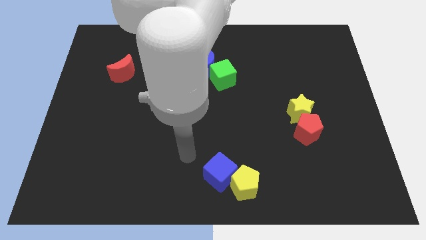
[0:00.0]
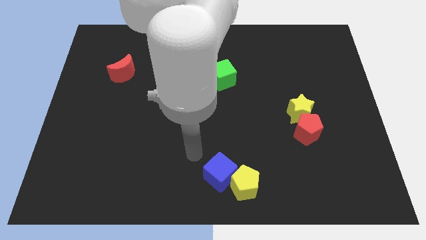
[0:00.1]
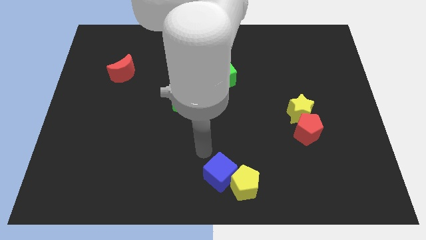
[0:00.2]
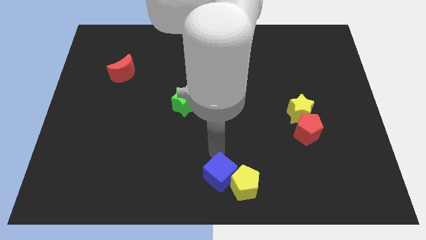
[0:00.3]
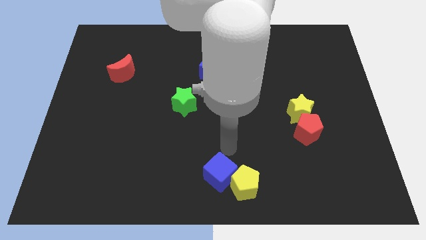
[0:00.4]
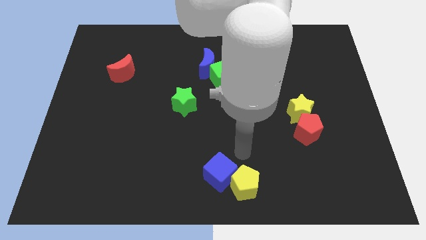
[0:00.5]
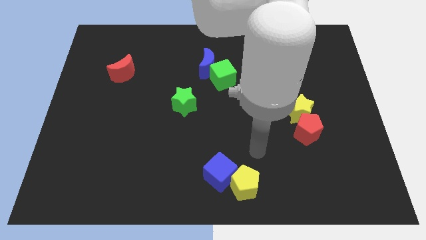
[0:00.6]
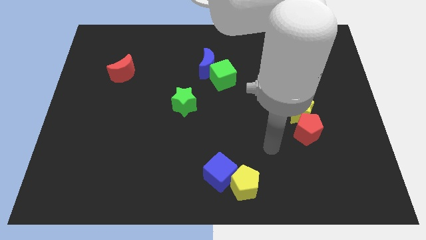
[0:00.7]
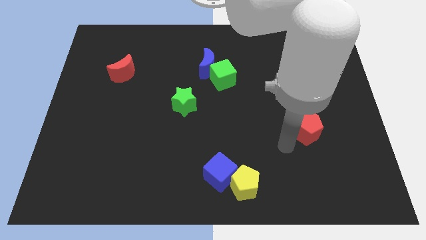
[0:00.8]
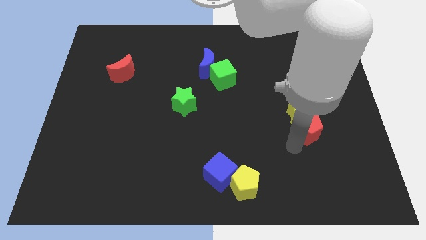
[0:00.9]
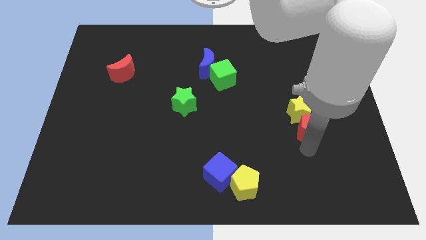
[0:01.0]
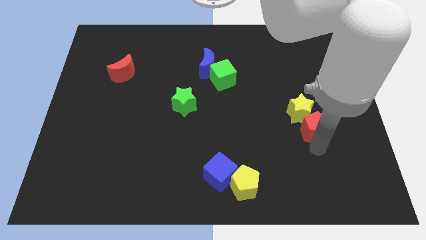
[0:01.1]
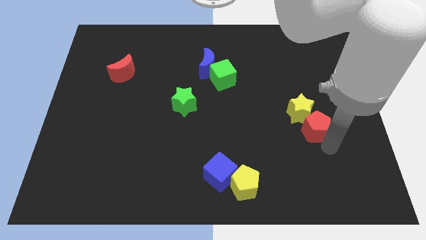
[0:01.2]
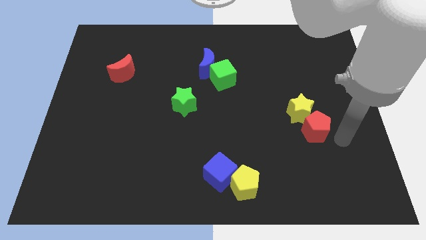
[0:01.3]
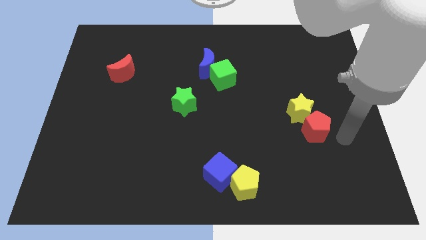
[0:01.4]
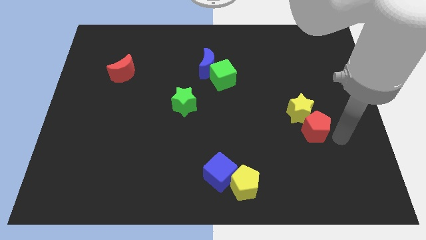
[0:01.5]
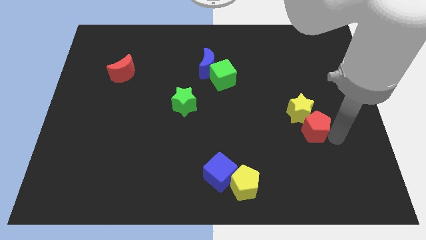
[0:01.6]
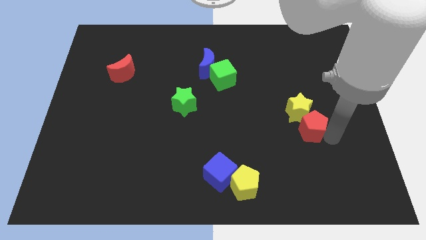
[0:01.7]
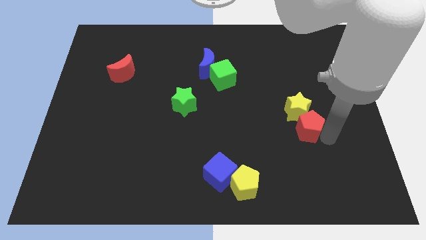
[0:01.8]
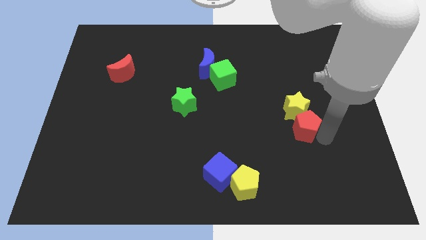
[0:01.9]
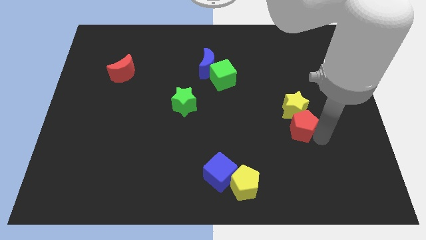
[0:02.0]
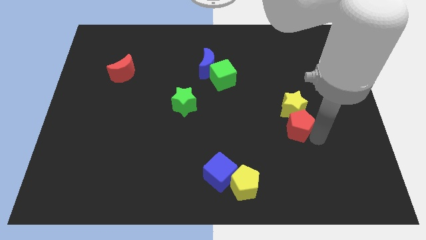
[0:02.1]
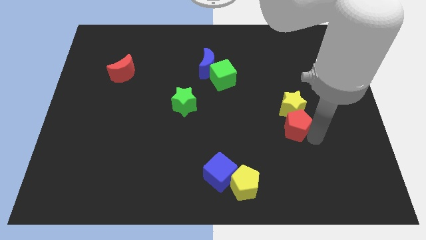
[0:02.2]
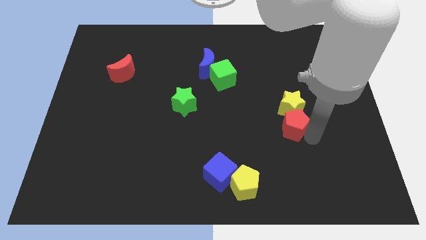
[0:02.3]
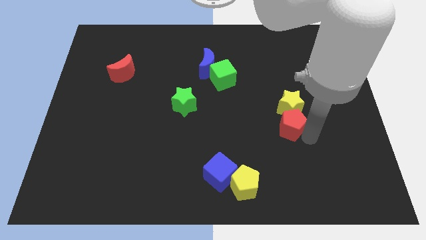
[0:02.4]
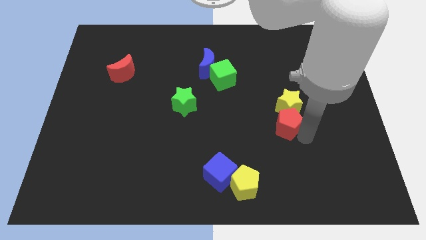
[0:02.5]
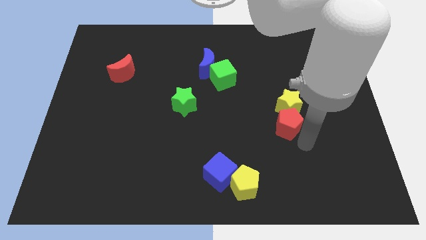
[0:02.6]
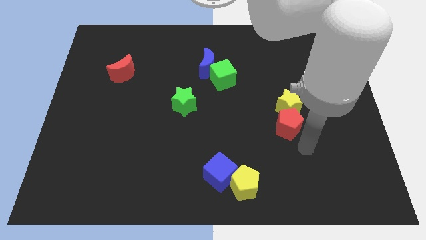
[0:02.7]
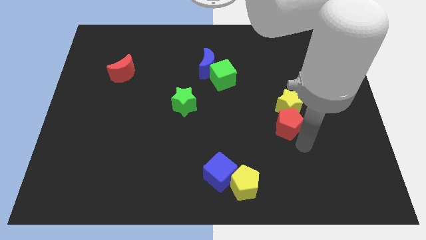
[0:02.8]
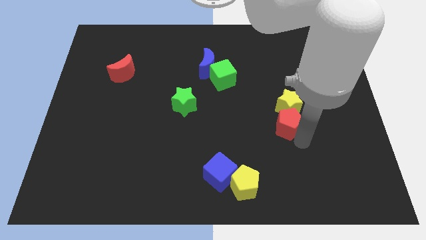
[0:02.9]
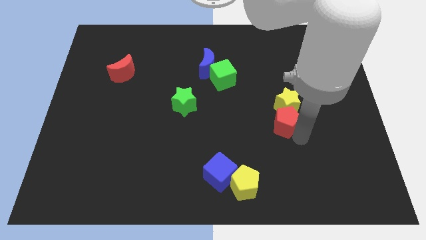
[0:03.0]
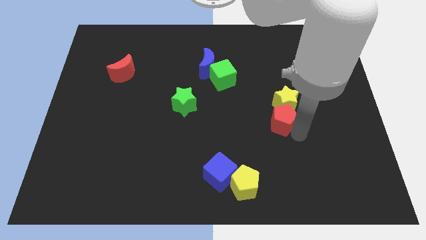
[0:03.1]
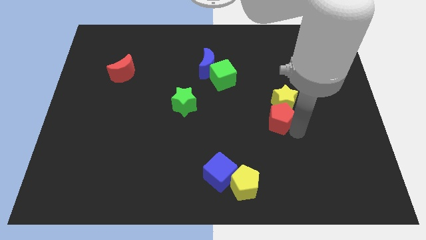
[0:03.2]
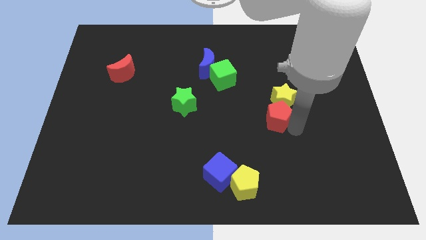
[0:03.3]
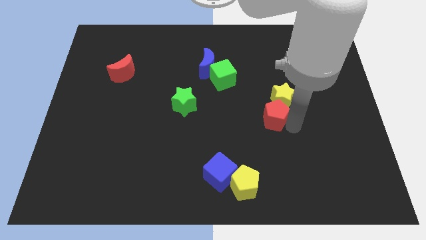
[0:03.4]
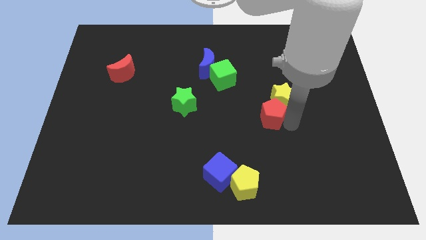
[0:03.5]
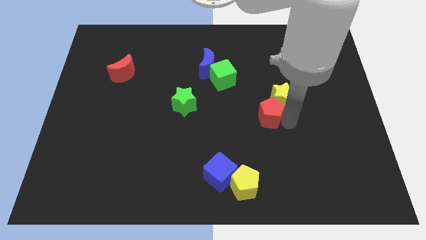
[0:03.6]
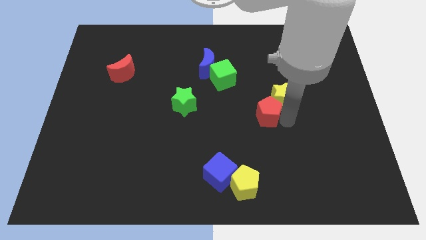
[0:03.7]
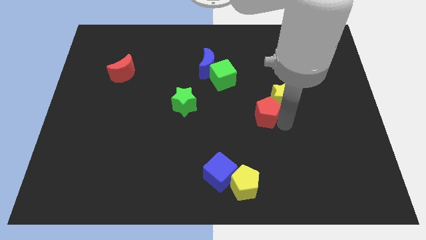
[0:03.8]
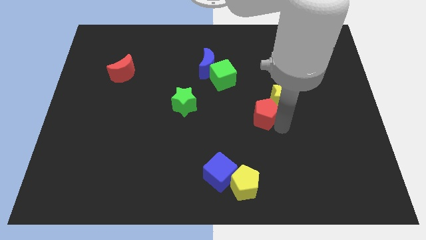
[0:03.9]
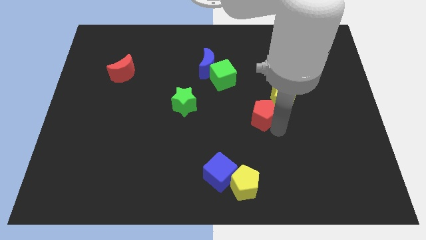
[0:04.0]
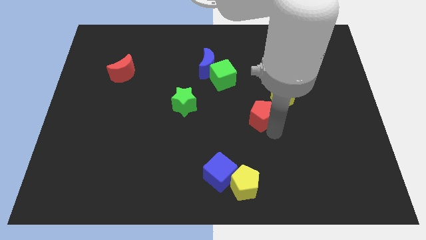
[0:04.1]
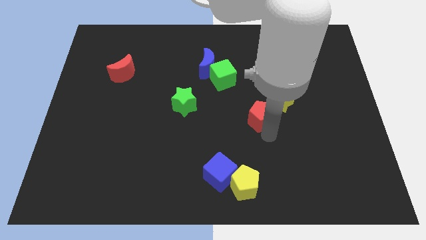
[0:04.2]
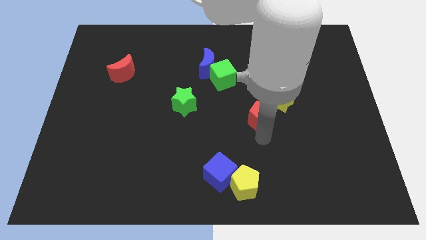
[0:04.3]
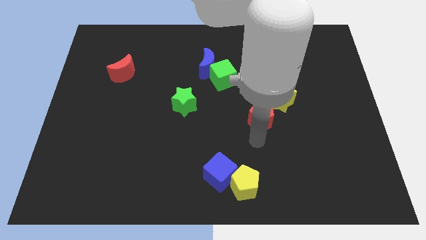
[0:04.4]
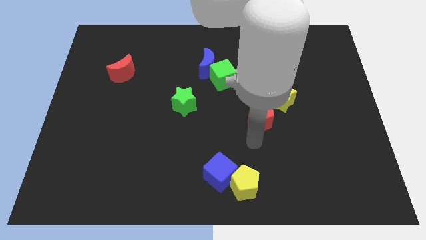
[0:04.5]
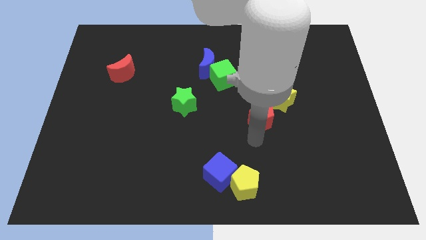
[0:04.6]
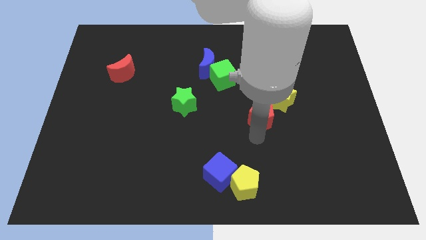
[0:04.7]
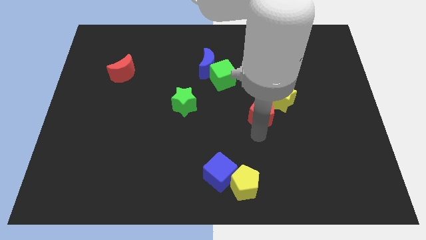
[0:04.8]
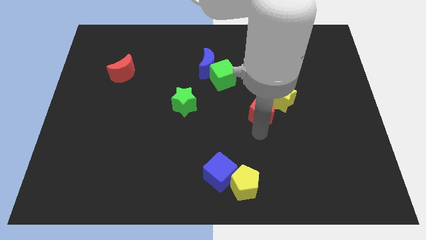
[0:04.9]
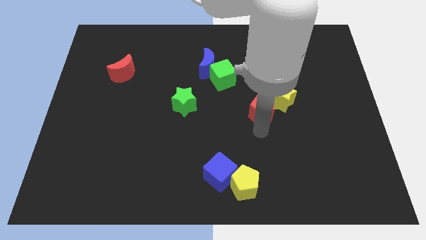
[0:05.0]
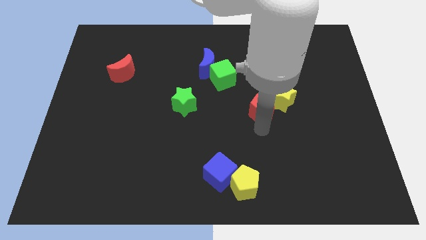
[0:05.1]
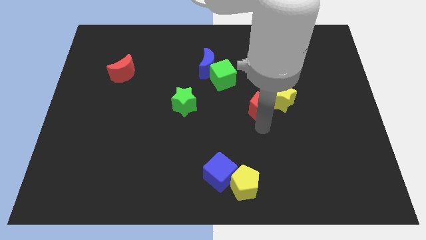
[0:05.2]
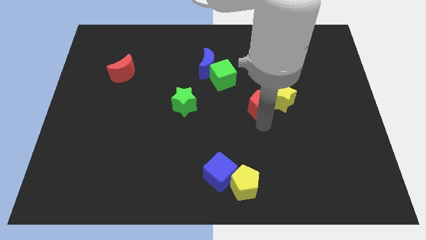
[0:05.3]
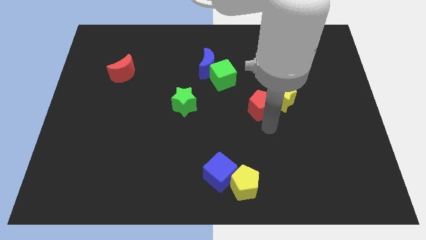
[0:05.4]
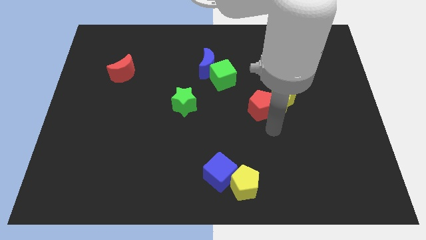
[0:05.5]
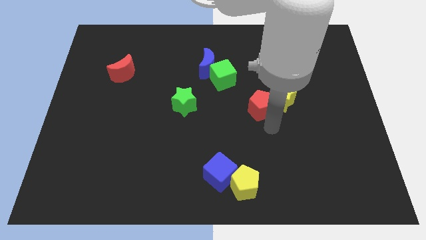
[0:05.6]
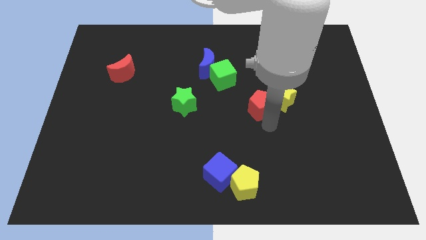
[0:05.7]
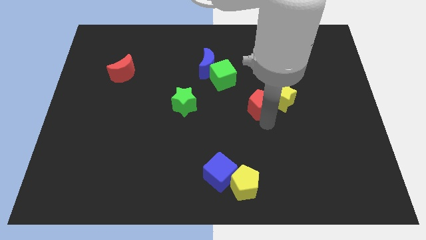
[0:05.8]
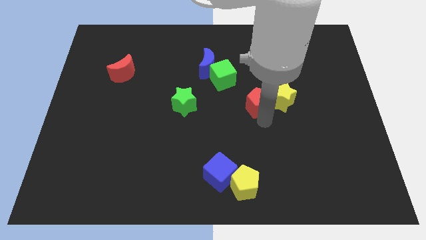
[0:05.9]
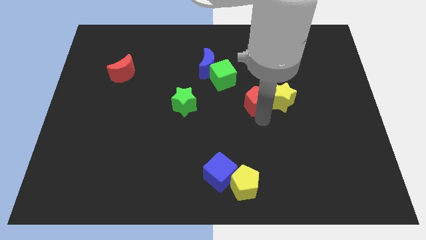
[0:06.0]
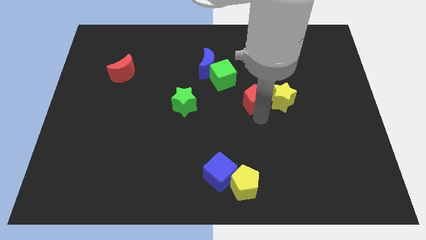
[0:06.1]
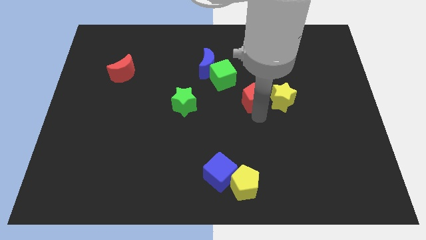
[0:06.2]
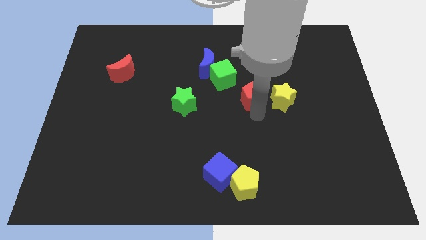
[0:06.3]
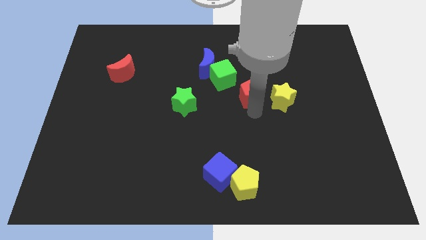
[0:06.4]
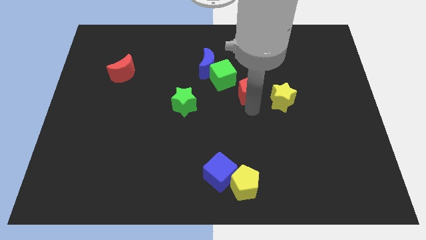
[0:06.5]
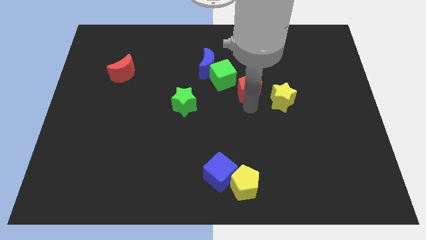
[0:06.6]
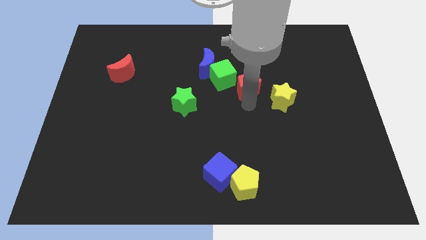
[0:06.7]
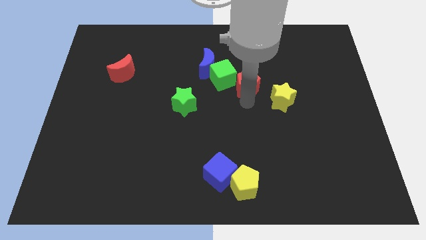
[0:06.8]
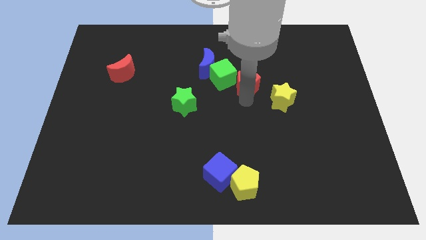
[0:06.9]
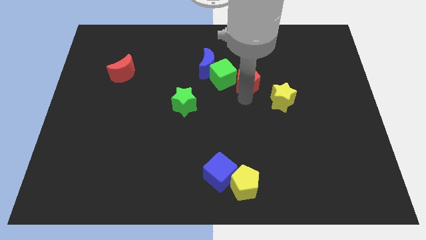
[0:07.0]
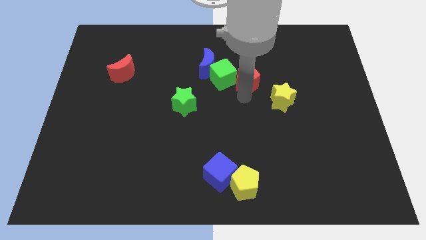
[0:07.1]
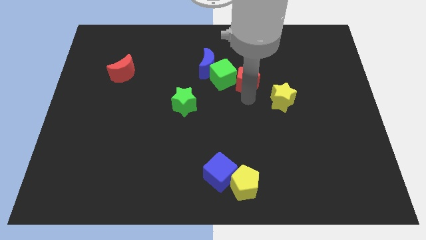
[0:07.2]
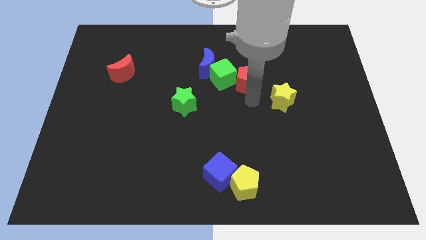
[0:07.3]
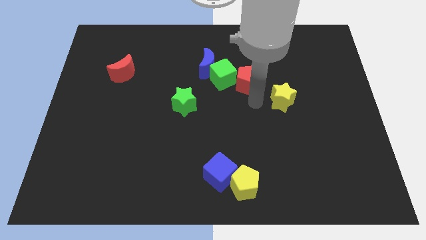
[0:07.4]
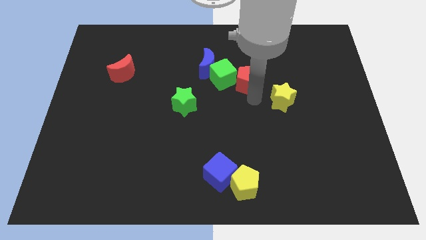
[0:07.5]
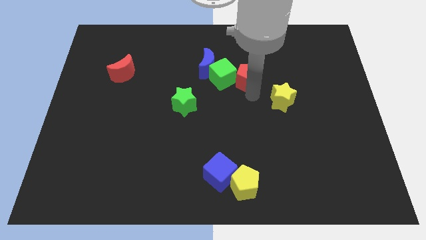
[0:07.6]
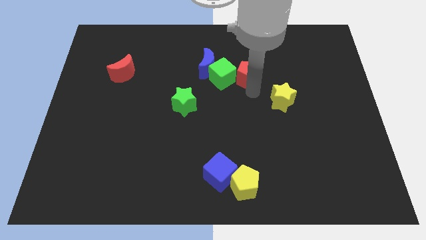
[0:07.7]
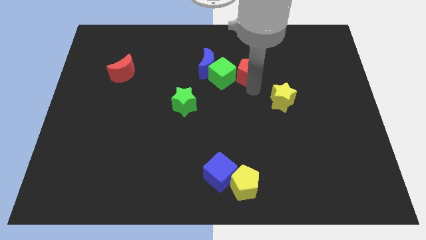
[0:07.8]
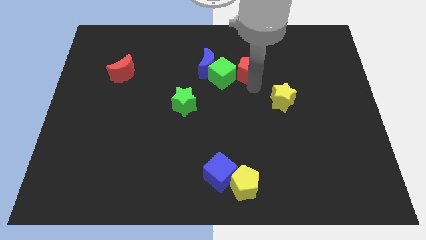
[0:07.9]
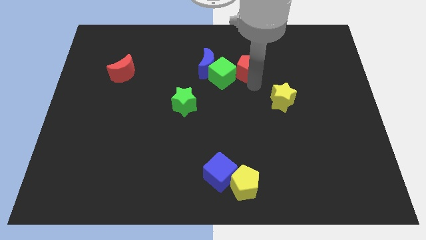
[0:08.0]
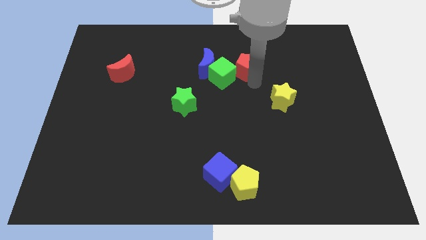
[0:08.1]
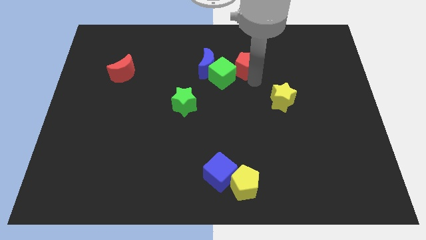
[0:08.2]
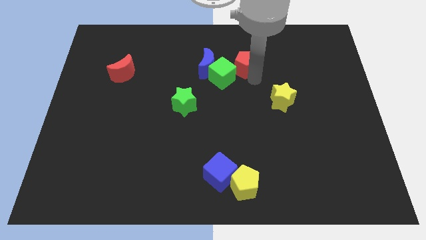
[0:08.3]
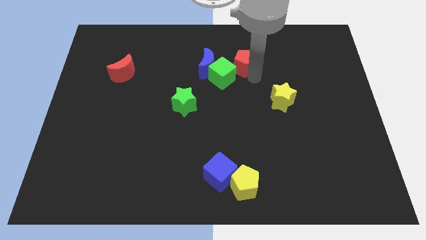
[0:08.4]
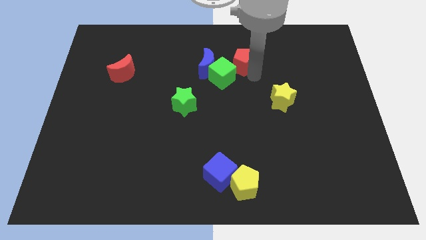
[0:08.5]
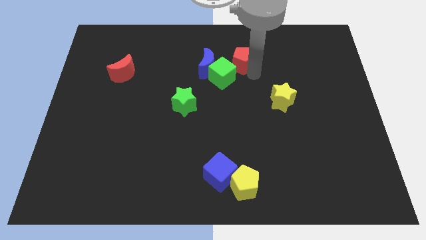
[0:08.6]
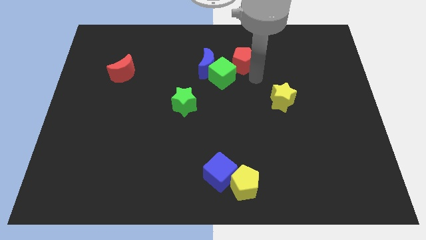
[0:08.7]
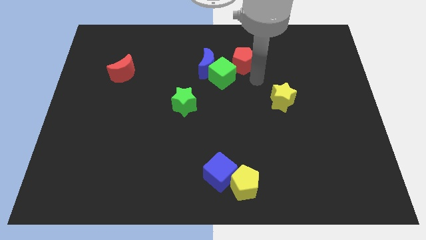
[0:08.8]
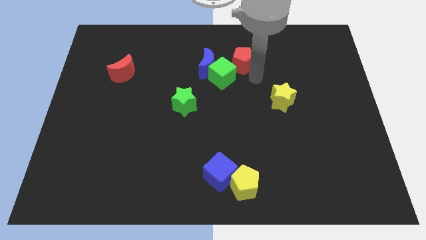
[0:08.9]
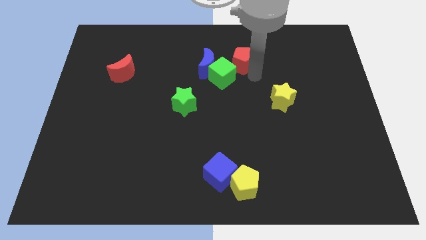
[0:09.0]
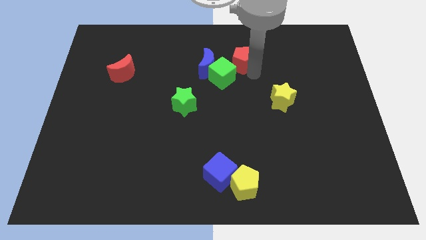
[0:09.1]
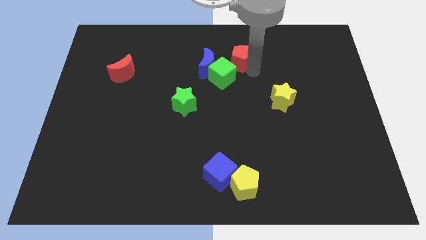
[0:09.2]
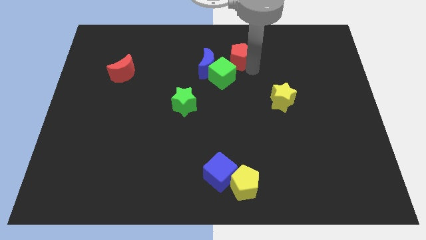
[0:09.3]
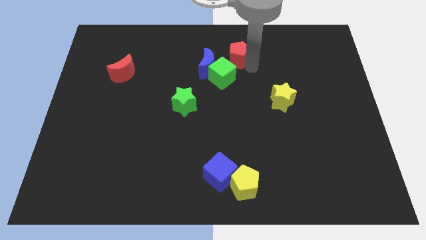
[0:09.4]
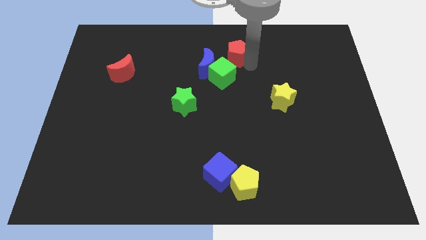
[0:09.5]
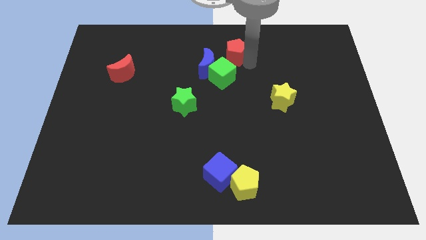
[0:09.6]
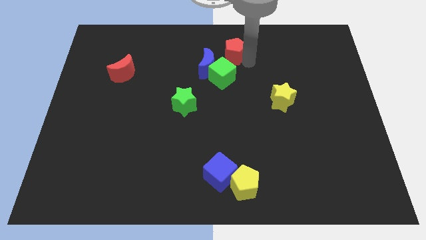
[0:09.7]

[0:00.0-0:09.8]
slide the red pentagon to the top side
